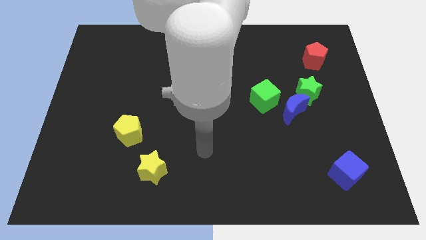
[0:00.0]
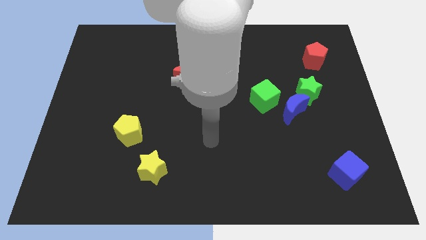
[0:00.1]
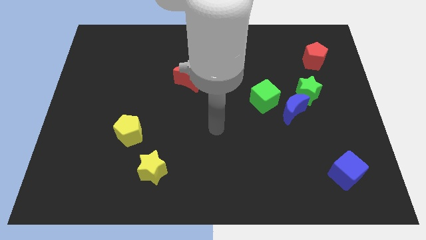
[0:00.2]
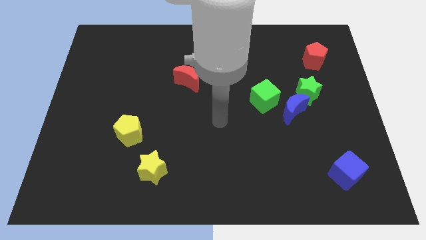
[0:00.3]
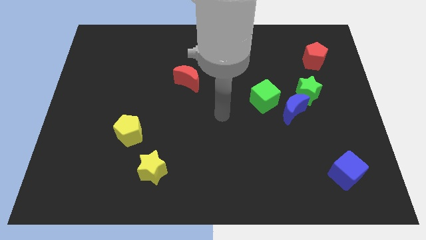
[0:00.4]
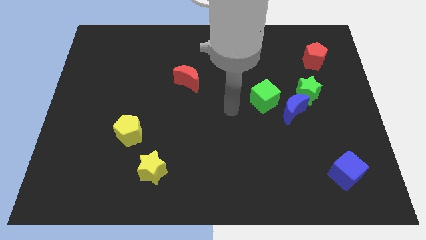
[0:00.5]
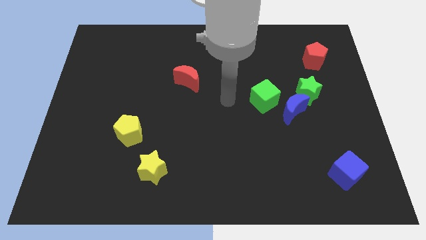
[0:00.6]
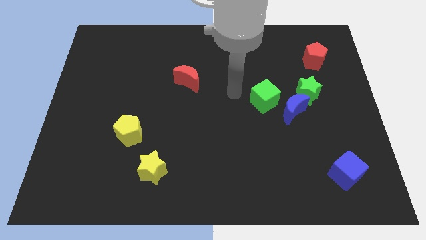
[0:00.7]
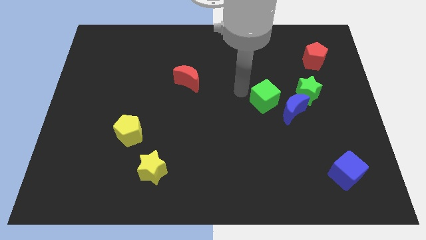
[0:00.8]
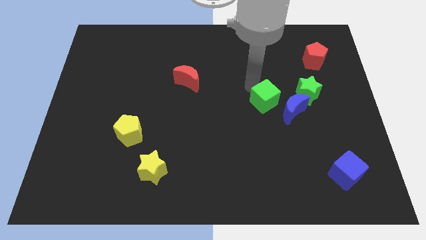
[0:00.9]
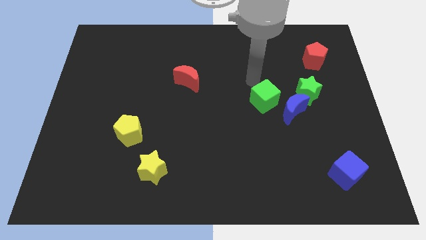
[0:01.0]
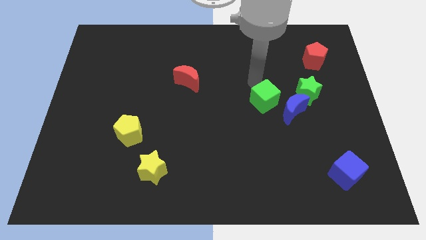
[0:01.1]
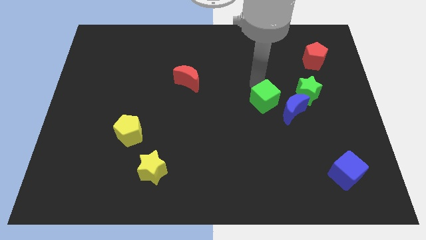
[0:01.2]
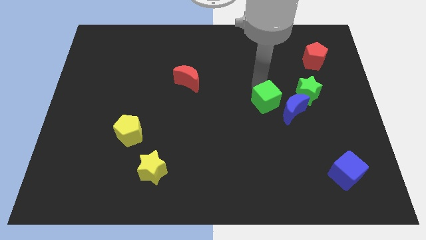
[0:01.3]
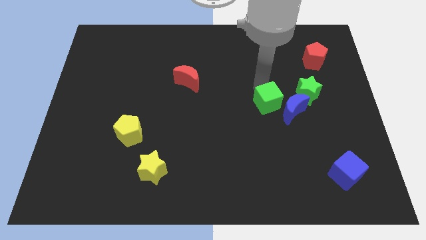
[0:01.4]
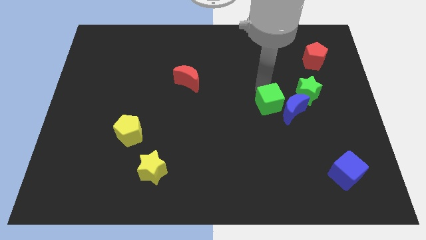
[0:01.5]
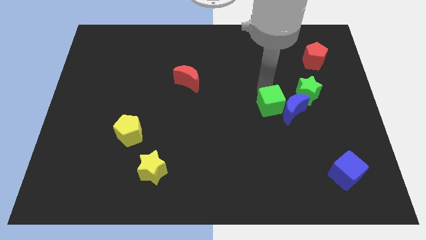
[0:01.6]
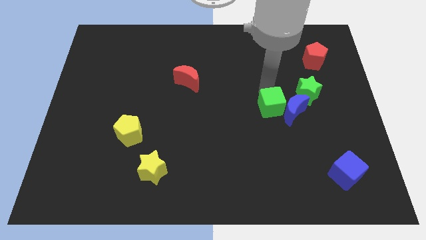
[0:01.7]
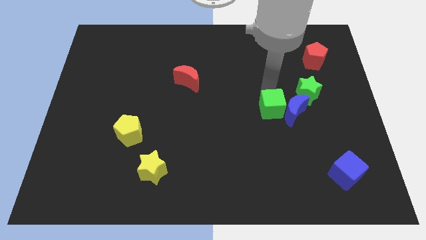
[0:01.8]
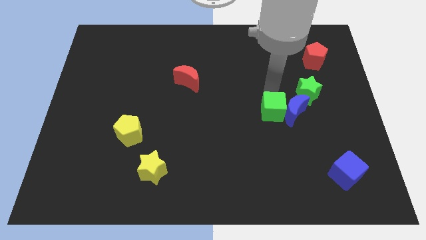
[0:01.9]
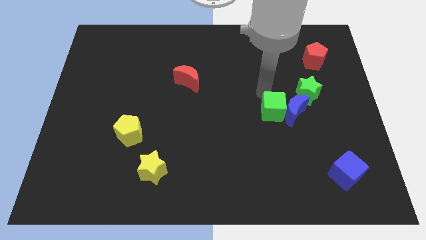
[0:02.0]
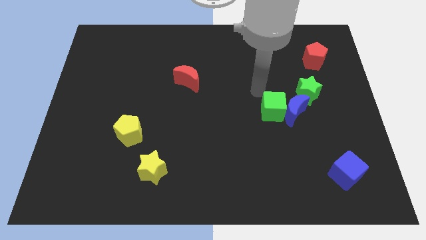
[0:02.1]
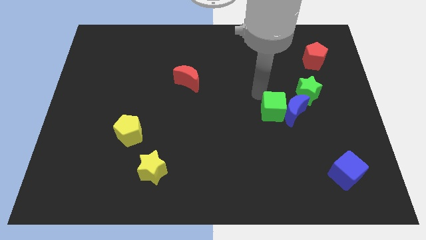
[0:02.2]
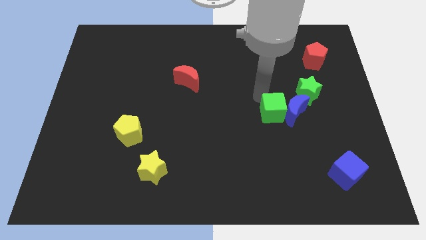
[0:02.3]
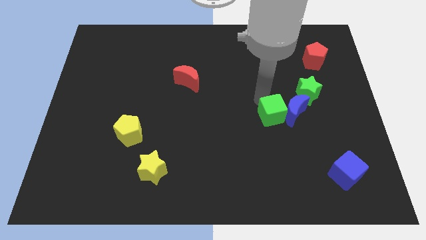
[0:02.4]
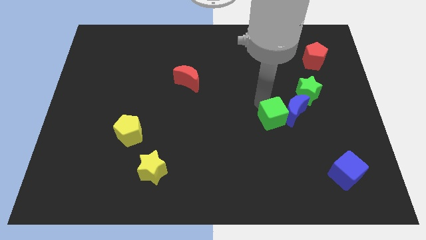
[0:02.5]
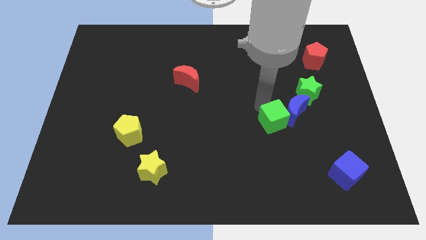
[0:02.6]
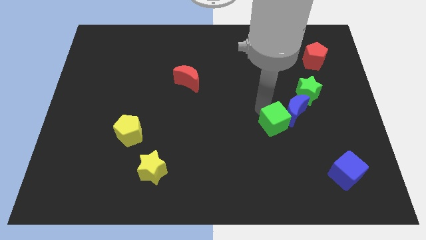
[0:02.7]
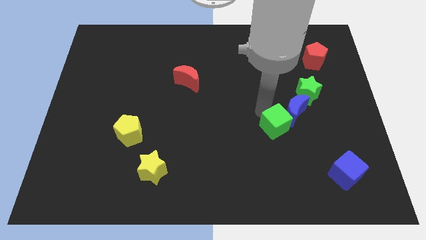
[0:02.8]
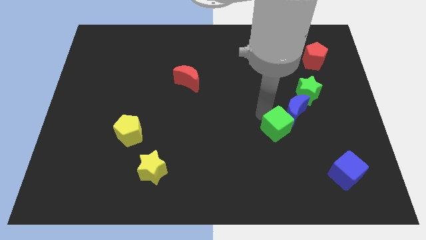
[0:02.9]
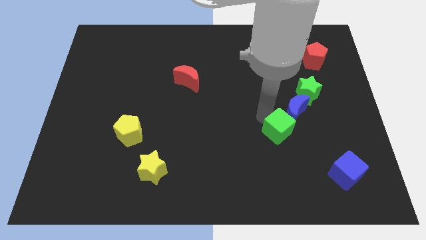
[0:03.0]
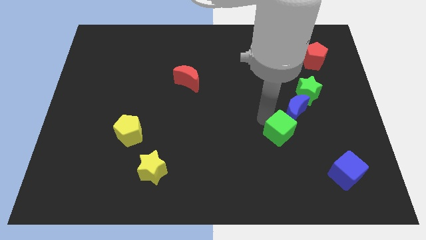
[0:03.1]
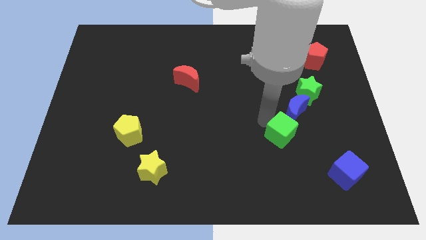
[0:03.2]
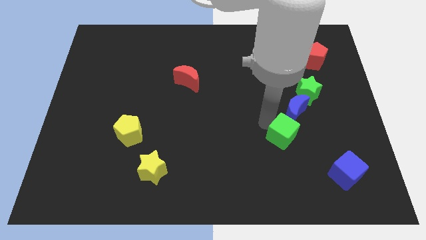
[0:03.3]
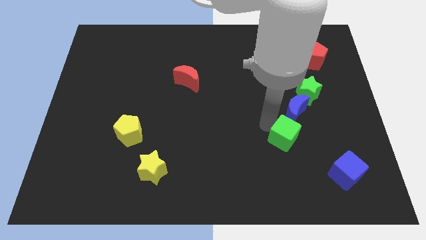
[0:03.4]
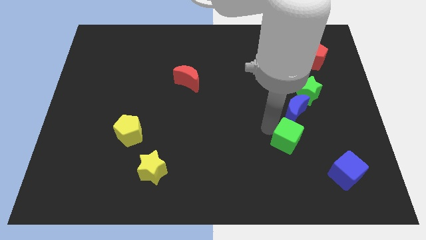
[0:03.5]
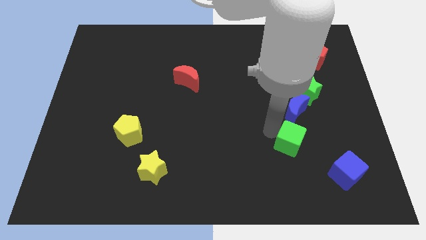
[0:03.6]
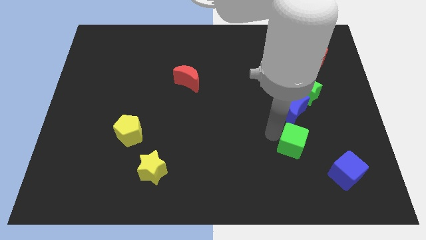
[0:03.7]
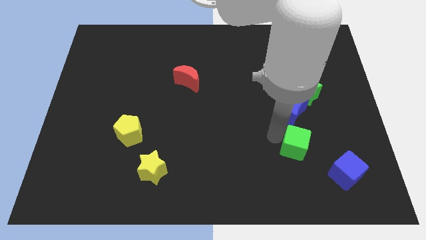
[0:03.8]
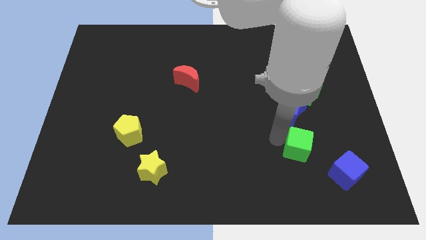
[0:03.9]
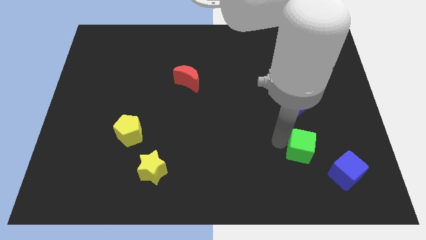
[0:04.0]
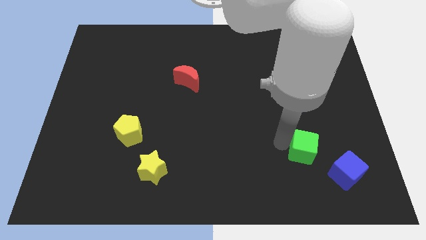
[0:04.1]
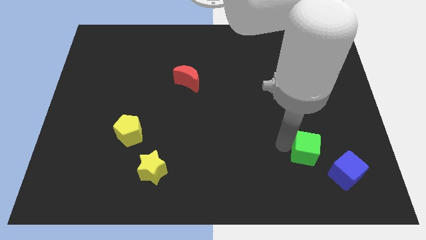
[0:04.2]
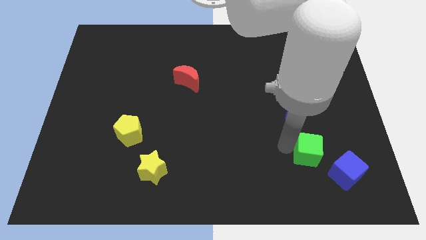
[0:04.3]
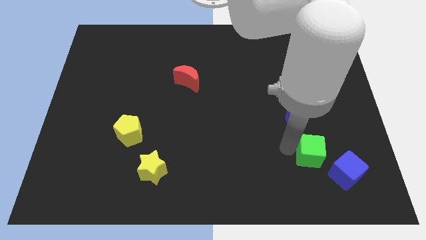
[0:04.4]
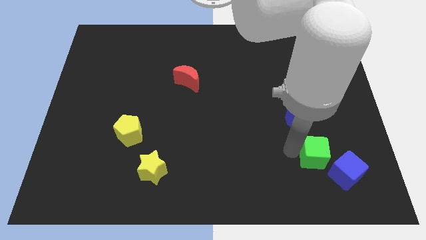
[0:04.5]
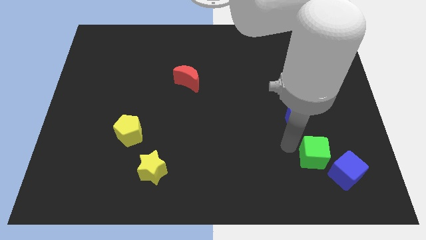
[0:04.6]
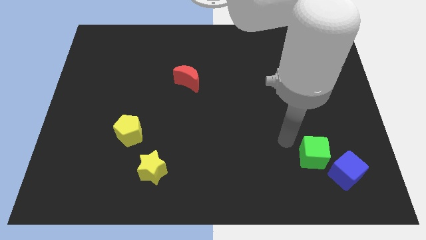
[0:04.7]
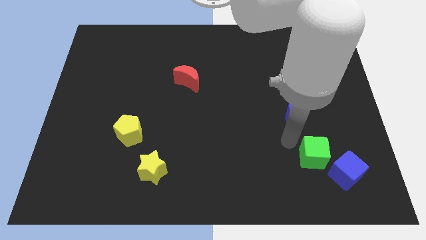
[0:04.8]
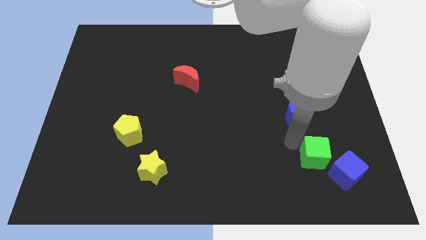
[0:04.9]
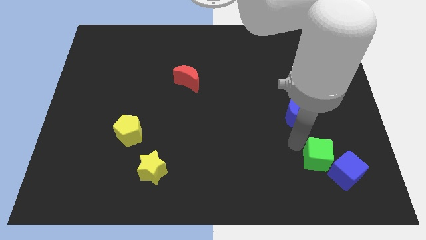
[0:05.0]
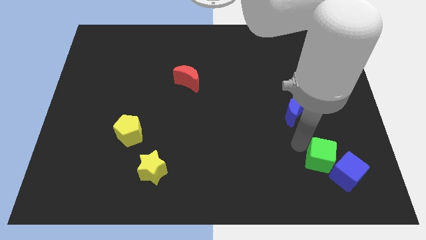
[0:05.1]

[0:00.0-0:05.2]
put the green cube next to the blue cube

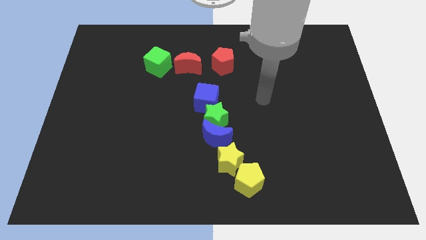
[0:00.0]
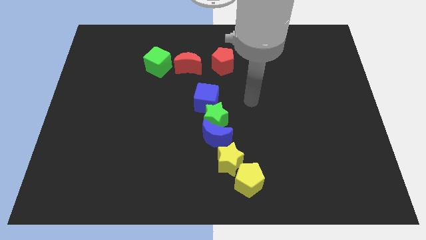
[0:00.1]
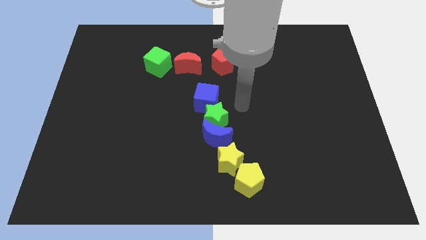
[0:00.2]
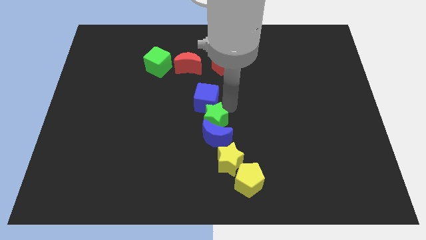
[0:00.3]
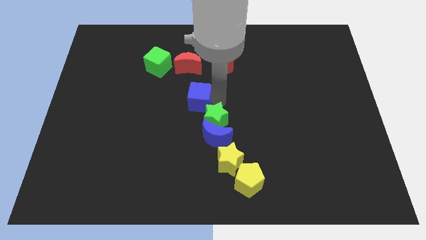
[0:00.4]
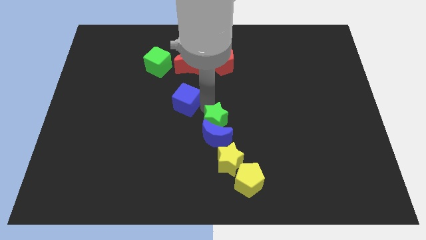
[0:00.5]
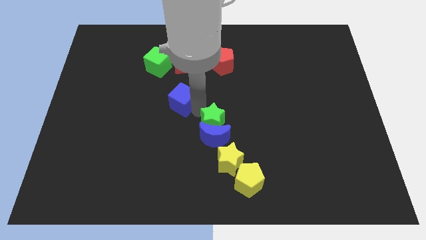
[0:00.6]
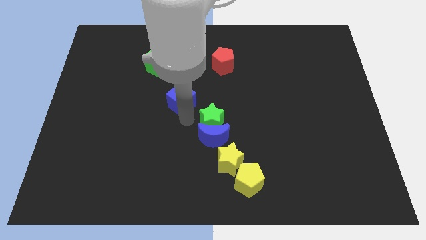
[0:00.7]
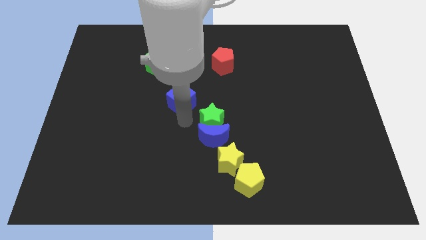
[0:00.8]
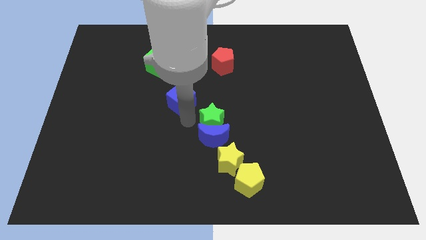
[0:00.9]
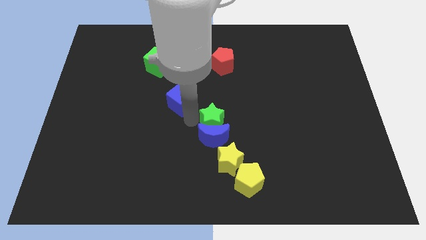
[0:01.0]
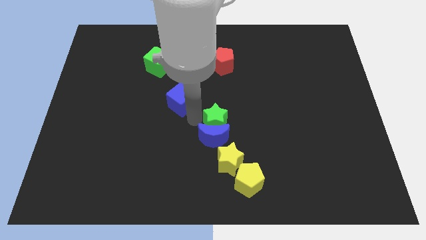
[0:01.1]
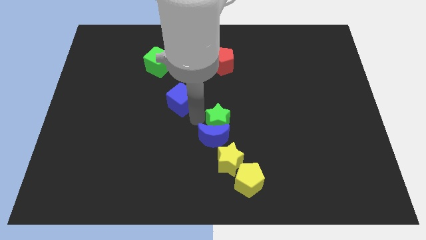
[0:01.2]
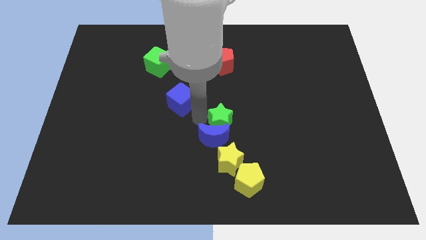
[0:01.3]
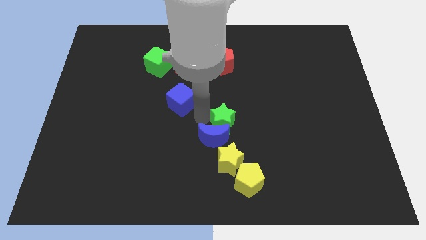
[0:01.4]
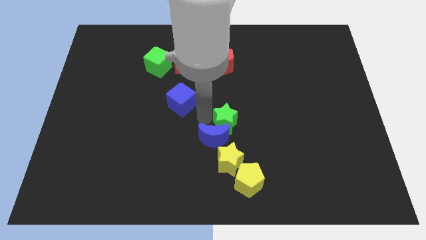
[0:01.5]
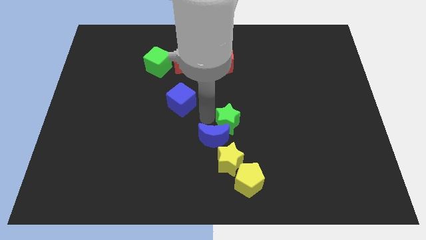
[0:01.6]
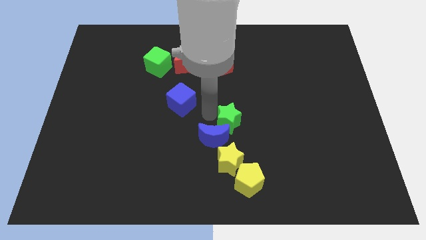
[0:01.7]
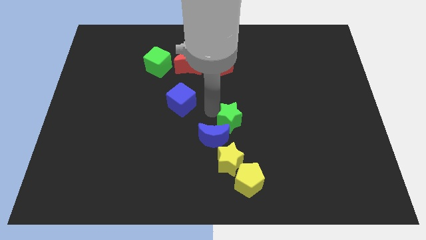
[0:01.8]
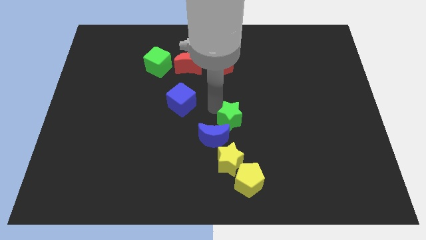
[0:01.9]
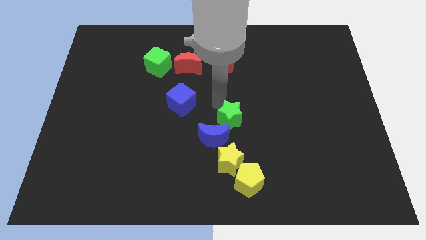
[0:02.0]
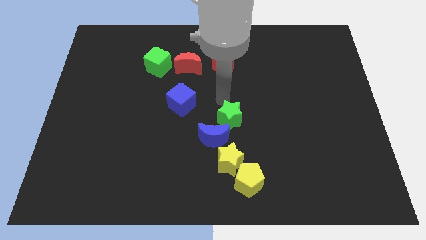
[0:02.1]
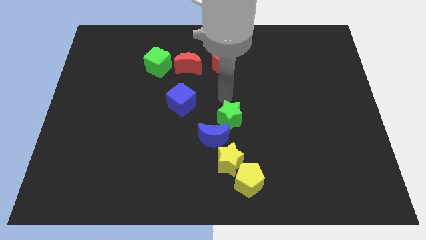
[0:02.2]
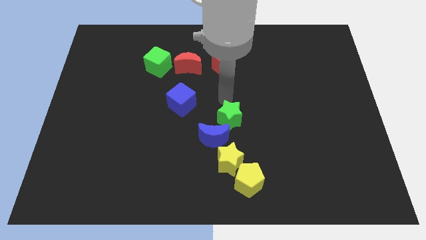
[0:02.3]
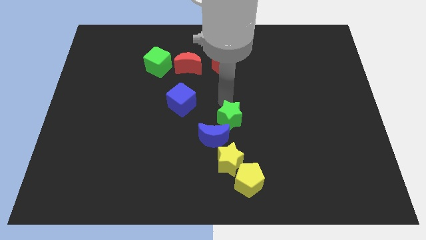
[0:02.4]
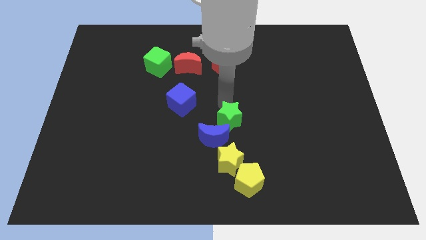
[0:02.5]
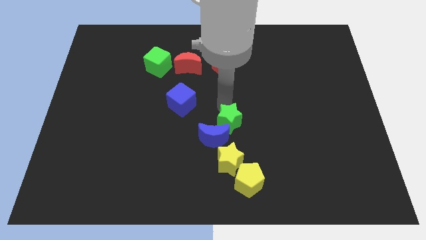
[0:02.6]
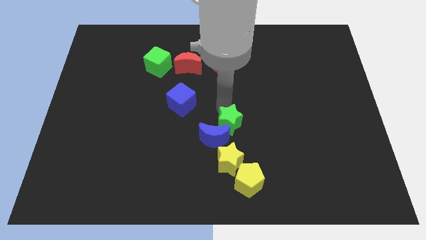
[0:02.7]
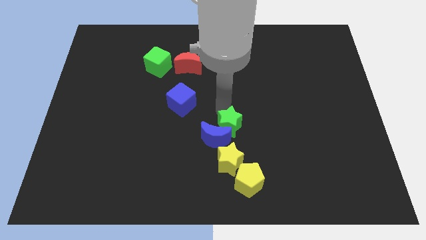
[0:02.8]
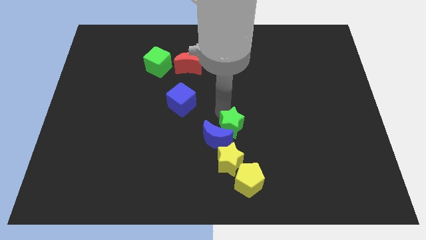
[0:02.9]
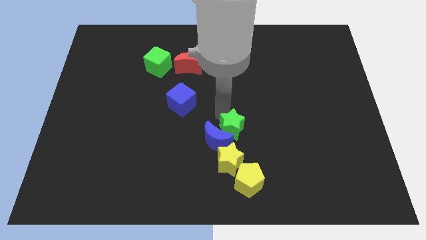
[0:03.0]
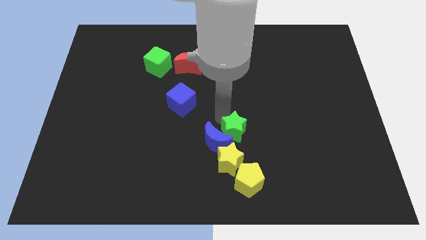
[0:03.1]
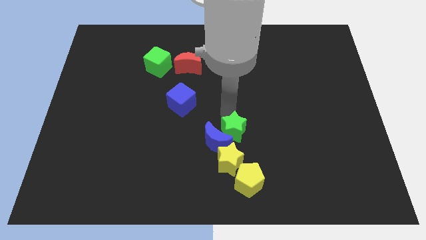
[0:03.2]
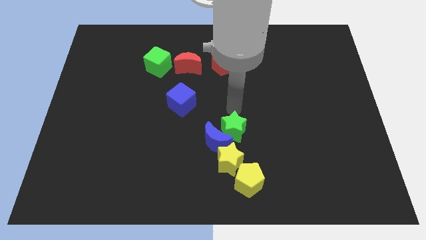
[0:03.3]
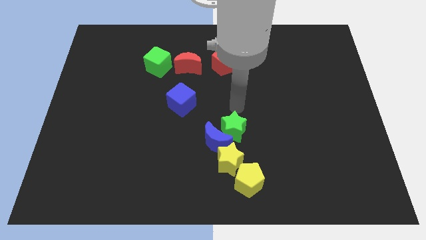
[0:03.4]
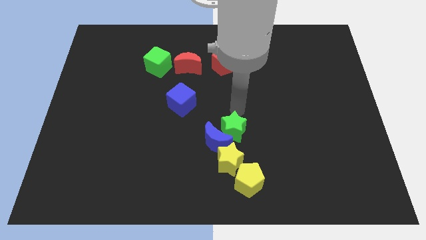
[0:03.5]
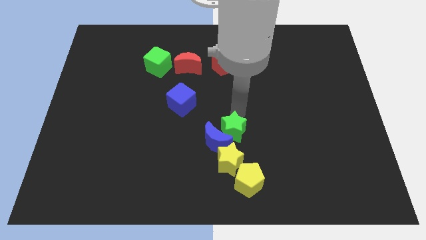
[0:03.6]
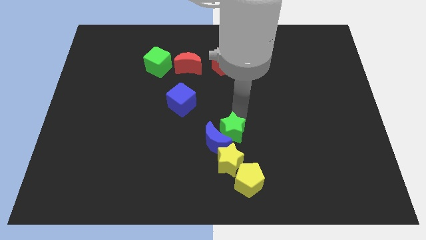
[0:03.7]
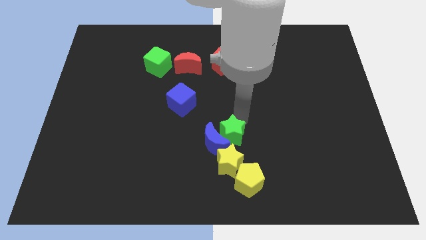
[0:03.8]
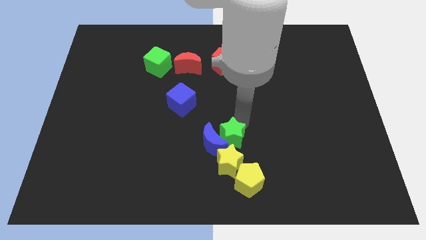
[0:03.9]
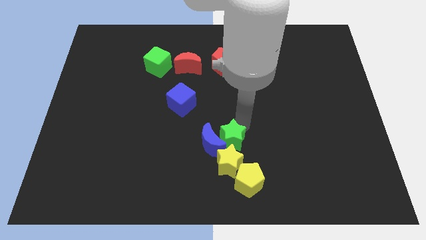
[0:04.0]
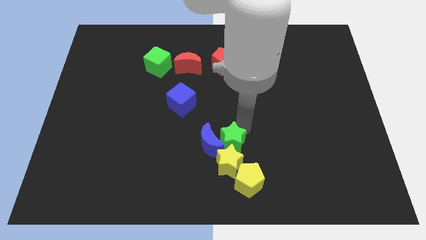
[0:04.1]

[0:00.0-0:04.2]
slide the green star towards the yellow star
